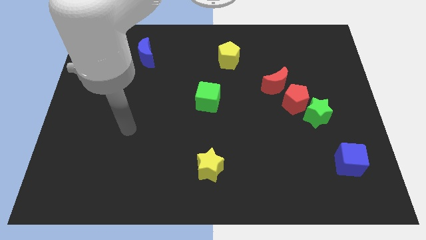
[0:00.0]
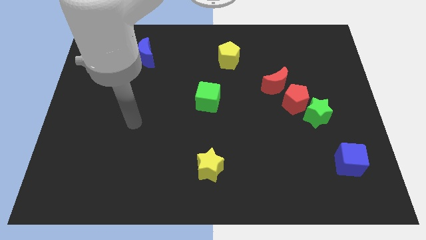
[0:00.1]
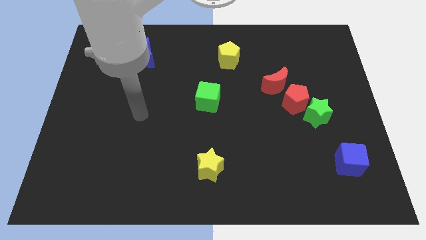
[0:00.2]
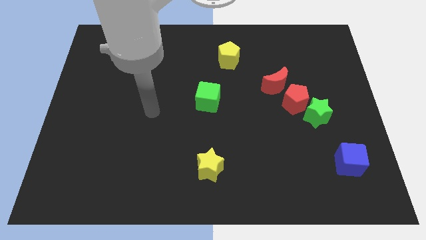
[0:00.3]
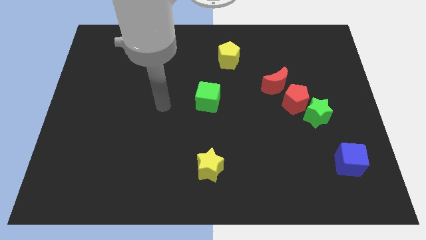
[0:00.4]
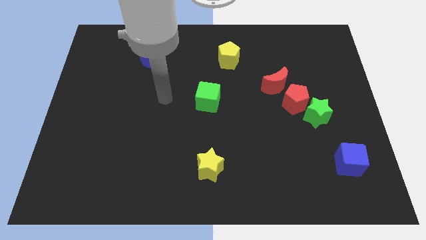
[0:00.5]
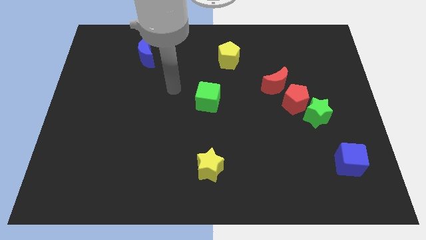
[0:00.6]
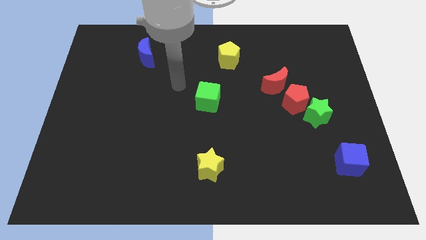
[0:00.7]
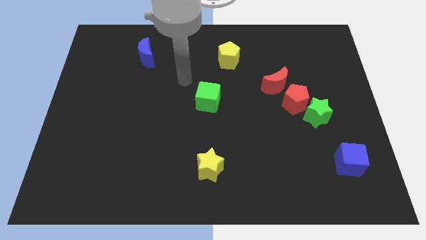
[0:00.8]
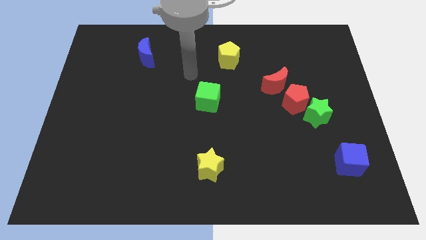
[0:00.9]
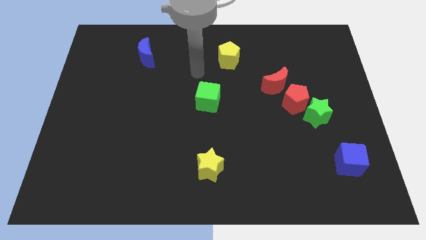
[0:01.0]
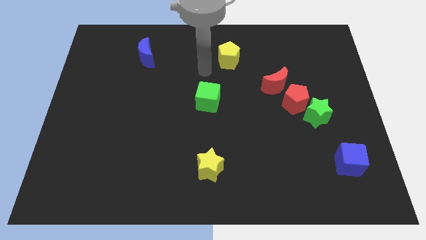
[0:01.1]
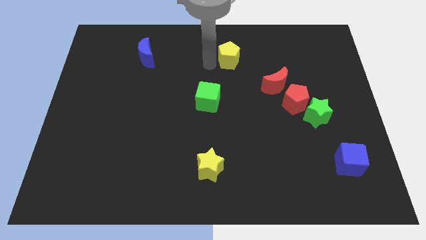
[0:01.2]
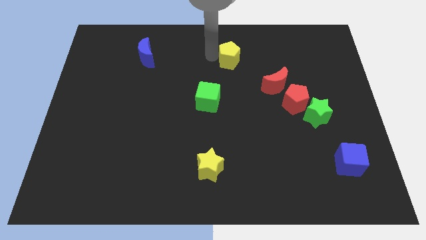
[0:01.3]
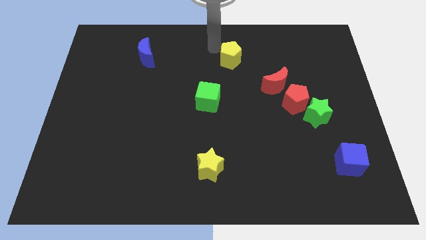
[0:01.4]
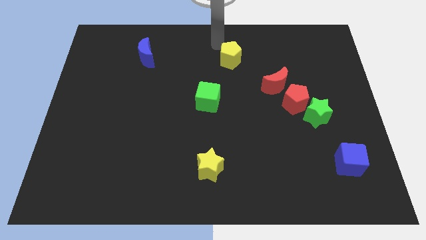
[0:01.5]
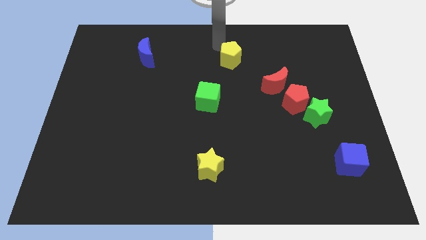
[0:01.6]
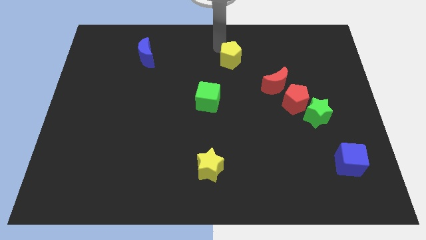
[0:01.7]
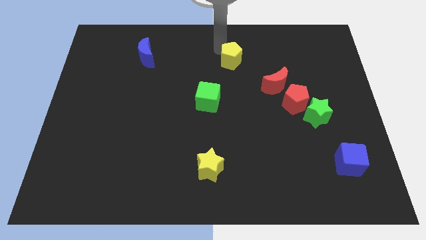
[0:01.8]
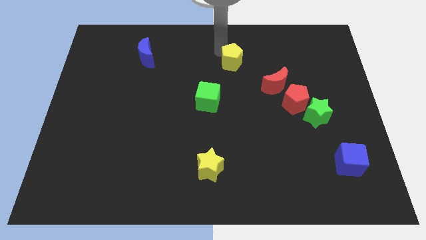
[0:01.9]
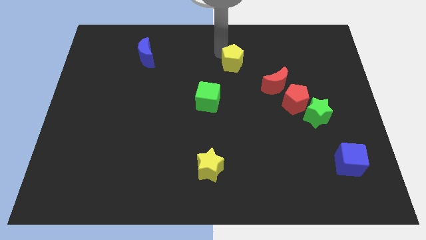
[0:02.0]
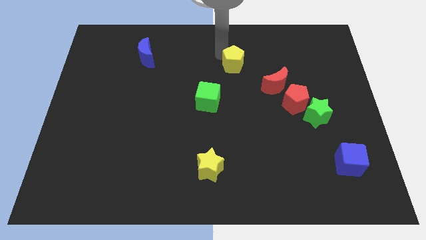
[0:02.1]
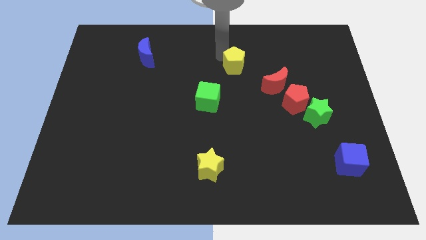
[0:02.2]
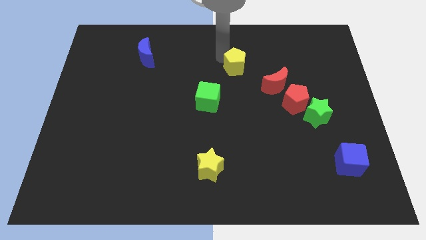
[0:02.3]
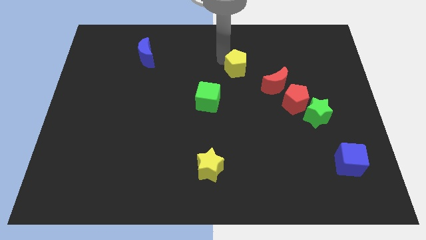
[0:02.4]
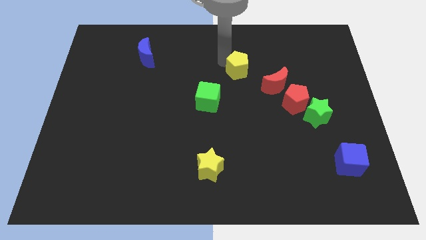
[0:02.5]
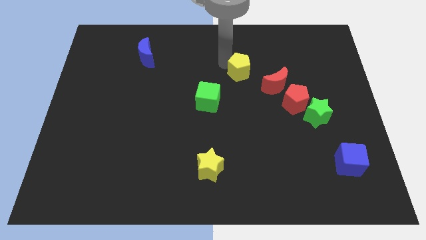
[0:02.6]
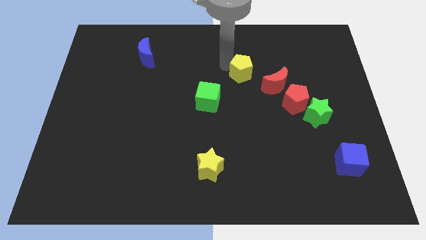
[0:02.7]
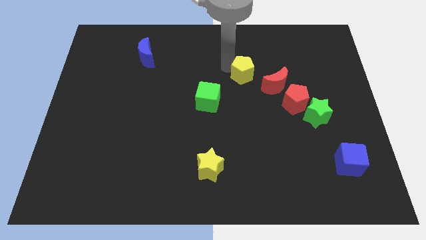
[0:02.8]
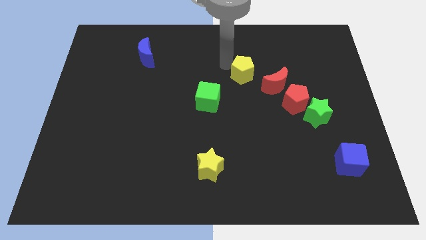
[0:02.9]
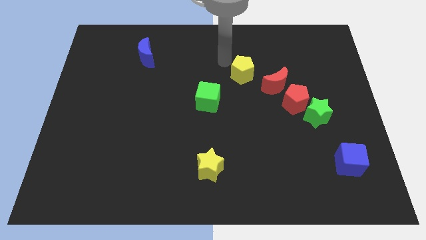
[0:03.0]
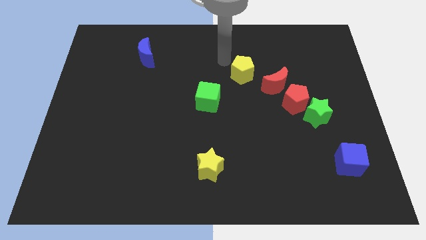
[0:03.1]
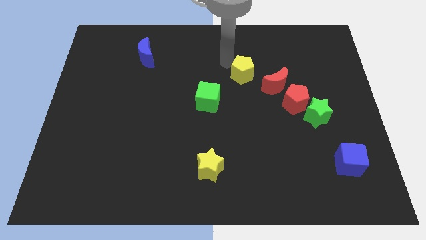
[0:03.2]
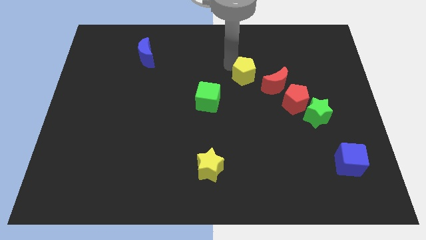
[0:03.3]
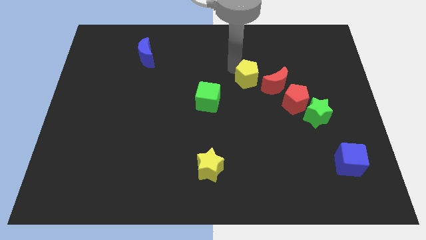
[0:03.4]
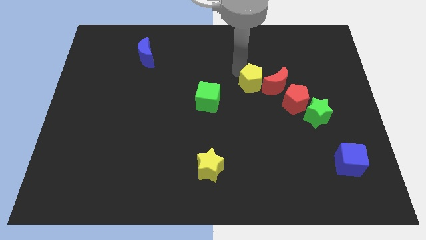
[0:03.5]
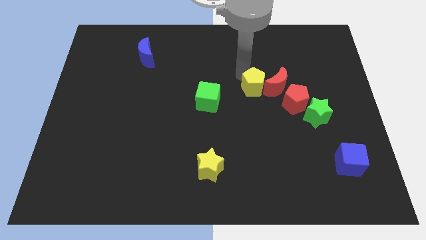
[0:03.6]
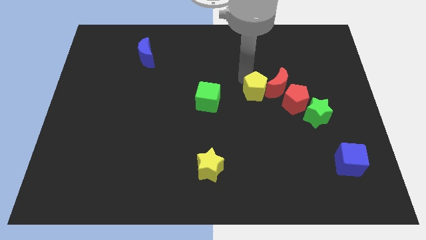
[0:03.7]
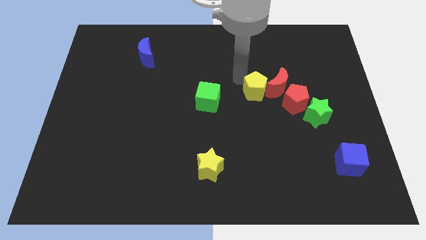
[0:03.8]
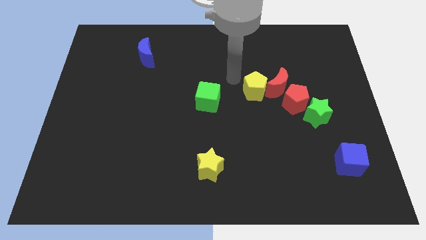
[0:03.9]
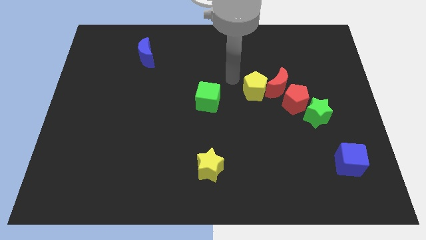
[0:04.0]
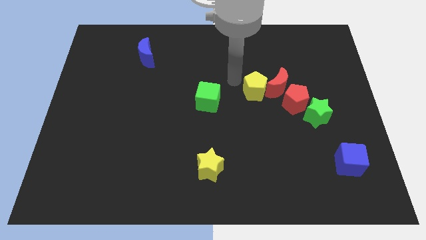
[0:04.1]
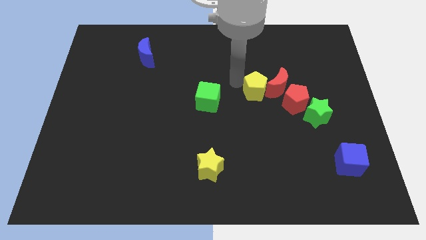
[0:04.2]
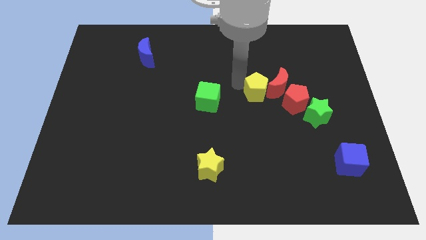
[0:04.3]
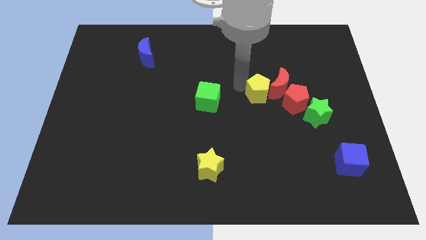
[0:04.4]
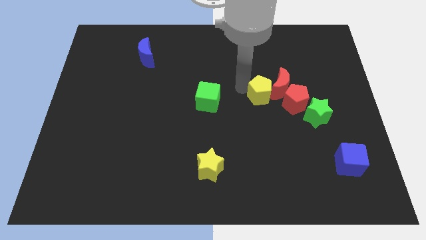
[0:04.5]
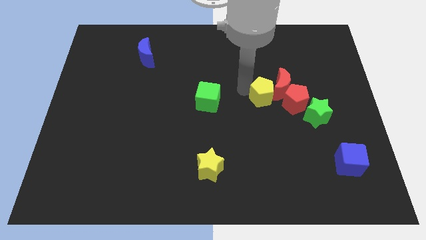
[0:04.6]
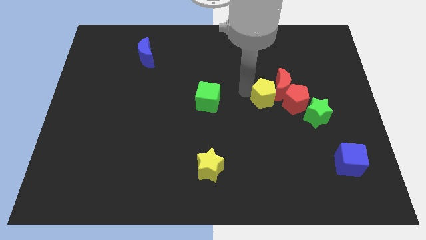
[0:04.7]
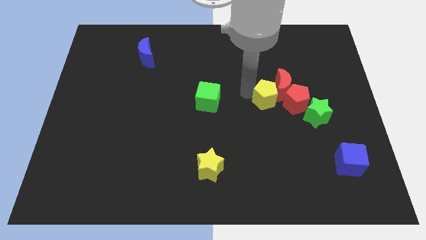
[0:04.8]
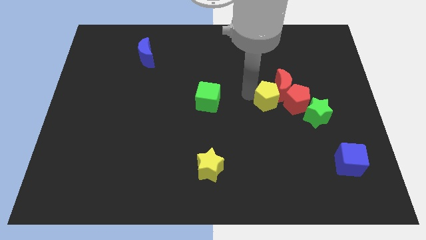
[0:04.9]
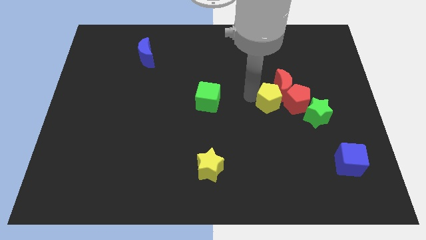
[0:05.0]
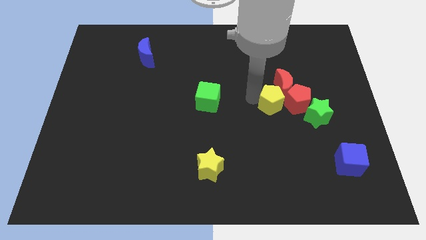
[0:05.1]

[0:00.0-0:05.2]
slide the yellow pentagon to the red pentagon

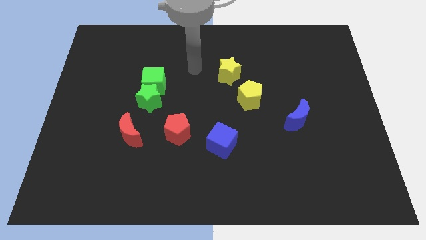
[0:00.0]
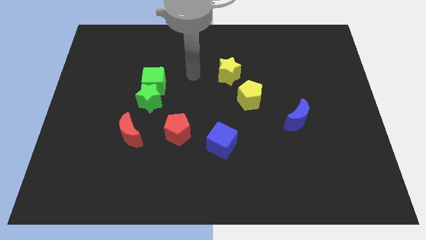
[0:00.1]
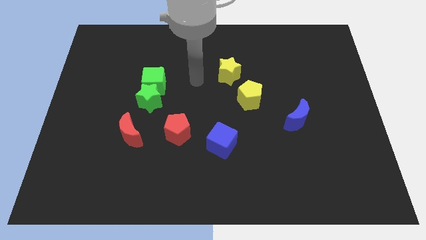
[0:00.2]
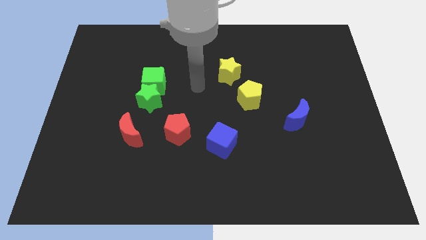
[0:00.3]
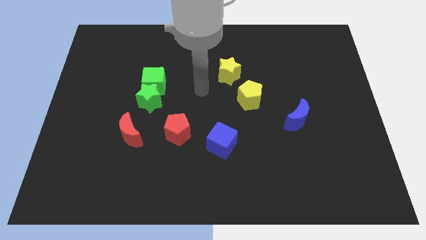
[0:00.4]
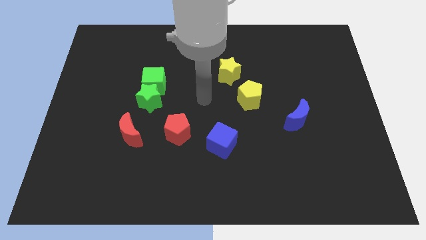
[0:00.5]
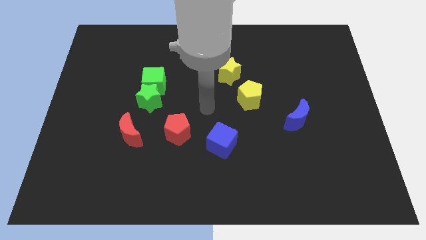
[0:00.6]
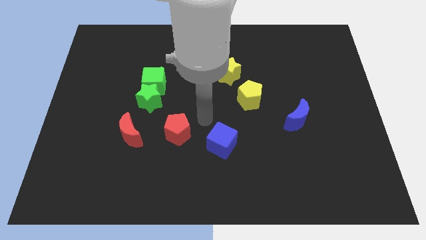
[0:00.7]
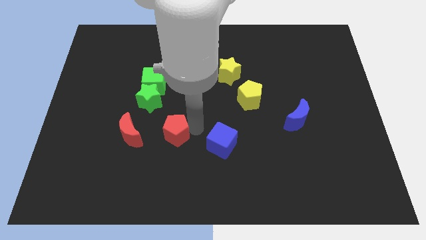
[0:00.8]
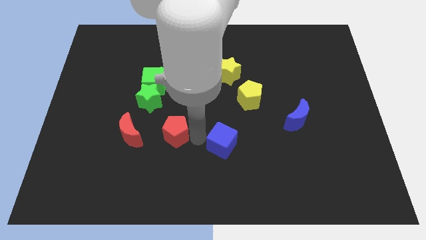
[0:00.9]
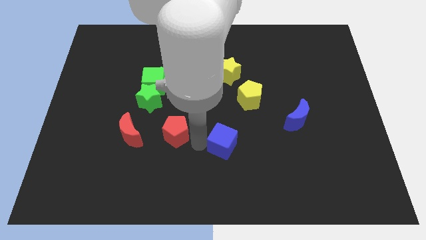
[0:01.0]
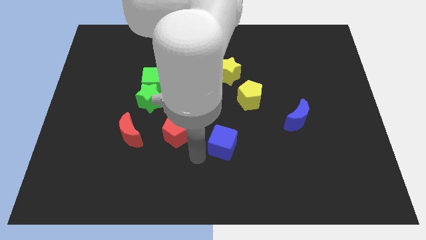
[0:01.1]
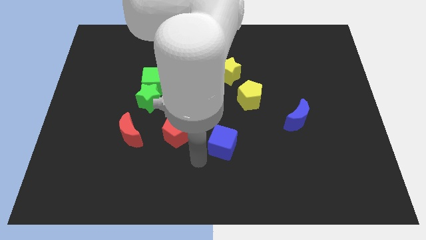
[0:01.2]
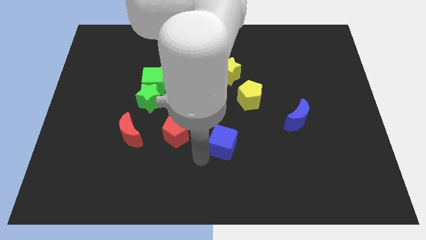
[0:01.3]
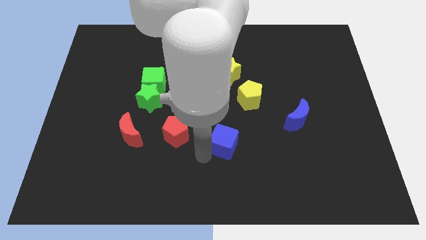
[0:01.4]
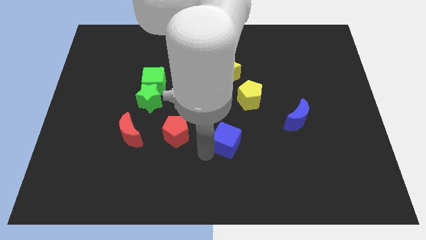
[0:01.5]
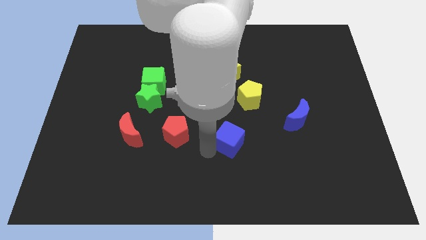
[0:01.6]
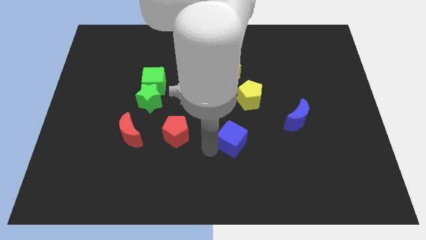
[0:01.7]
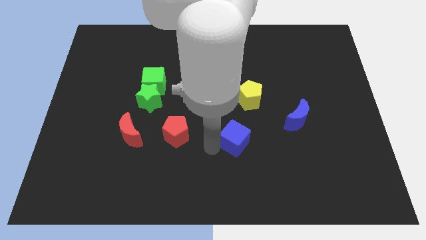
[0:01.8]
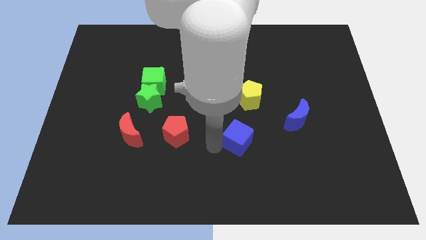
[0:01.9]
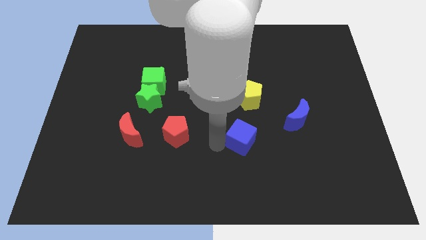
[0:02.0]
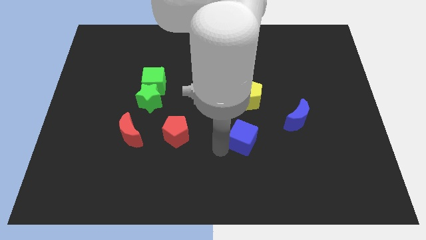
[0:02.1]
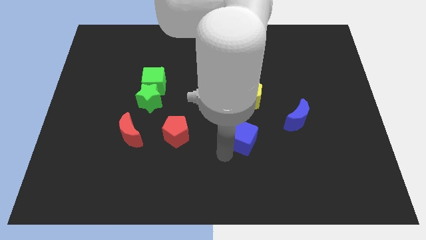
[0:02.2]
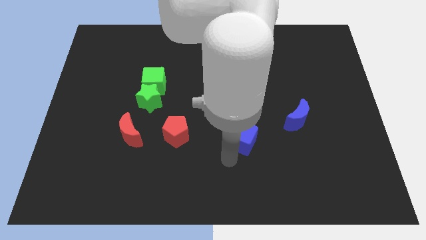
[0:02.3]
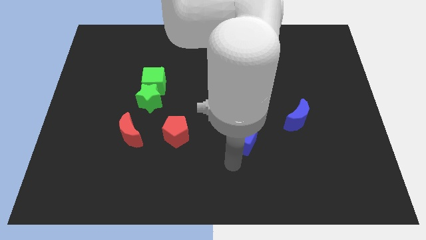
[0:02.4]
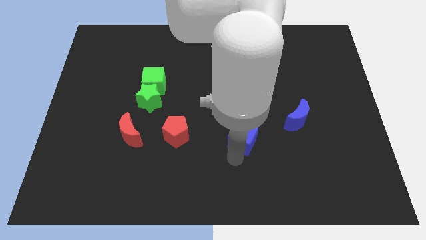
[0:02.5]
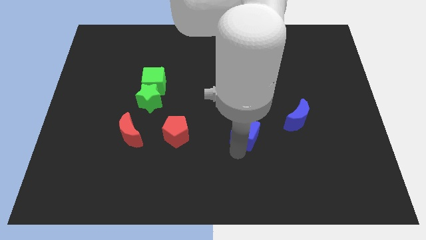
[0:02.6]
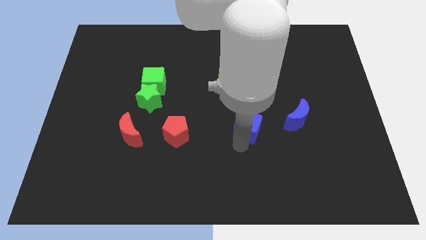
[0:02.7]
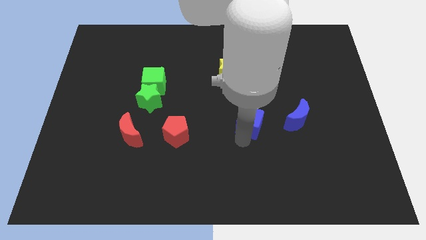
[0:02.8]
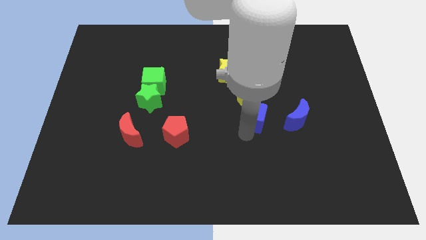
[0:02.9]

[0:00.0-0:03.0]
slide the blue cube close to the yellow pentagon
